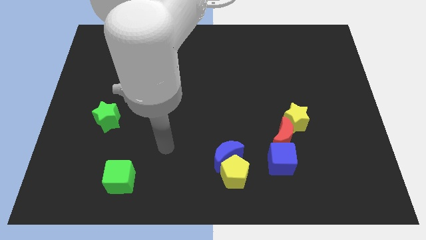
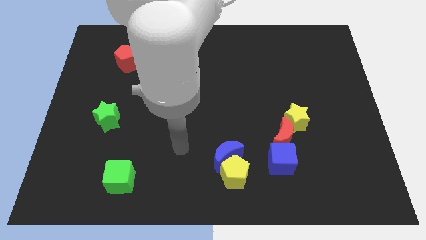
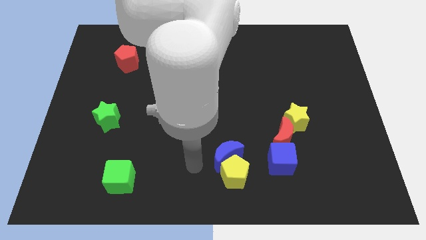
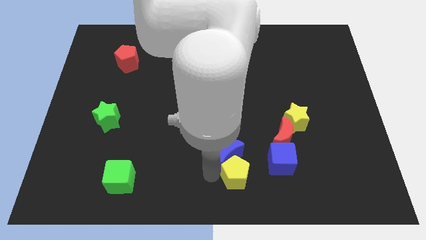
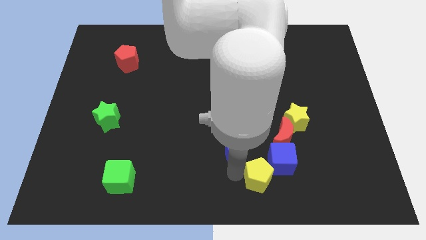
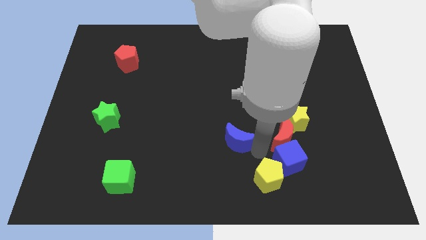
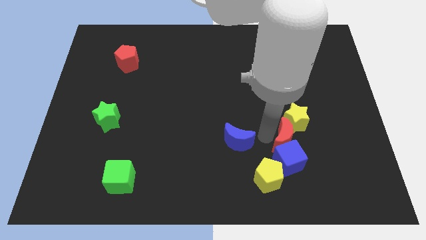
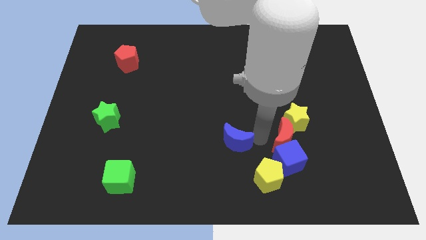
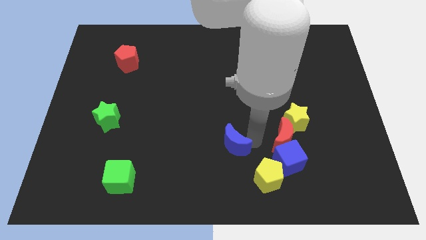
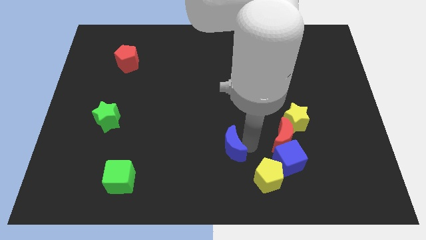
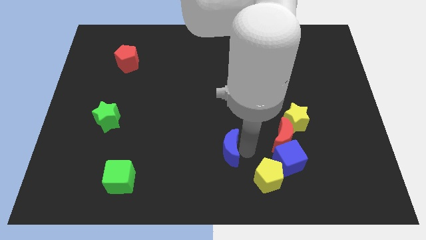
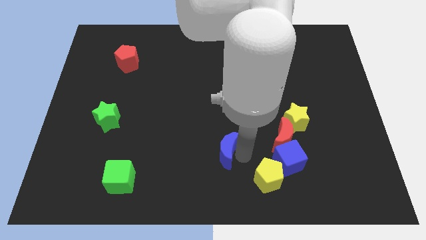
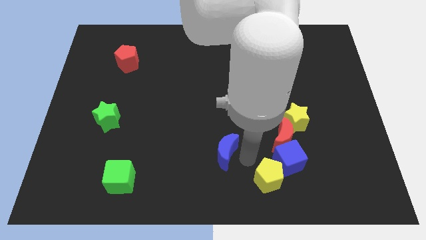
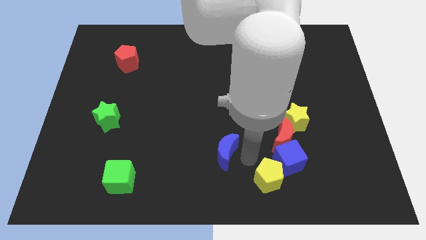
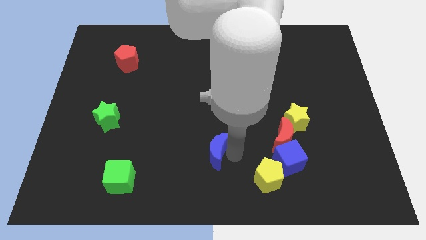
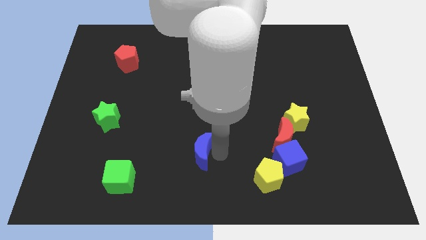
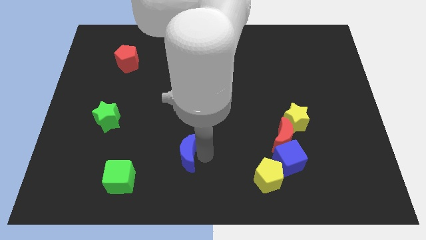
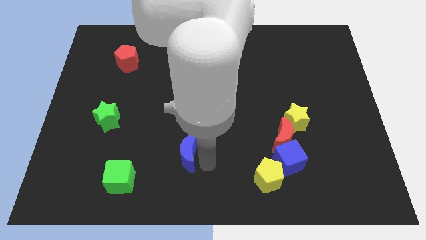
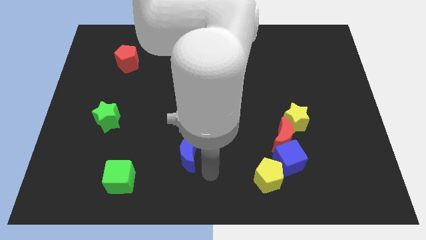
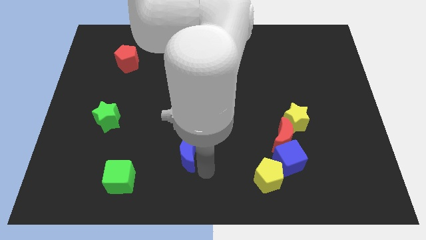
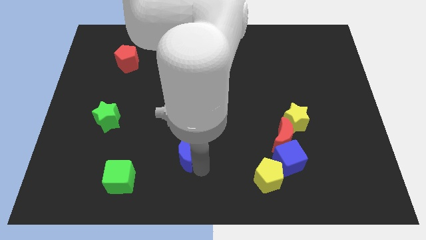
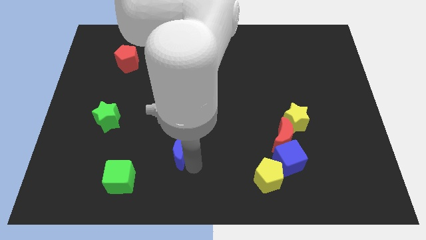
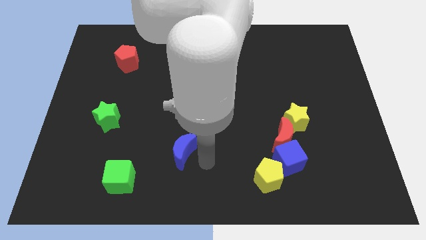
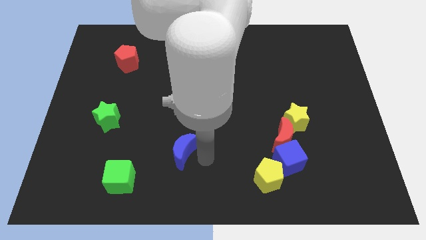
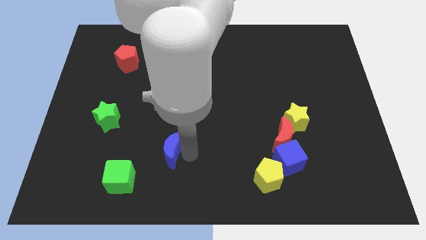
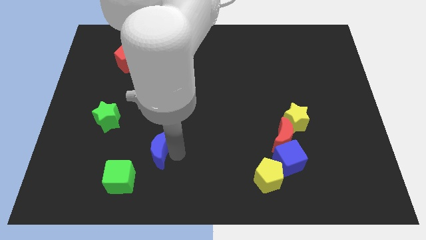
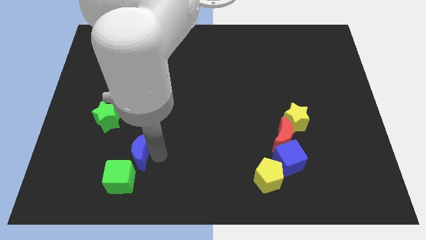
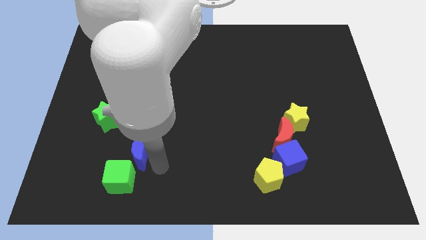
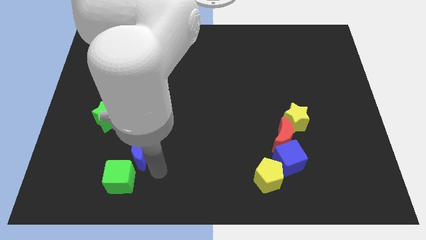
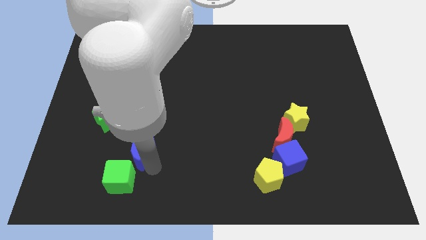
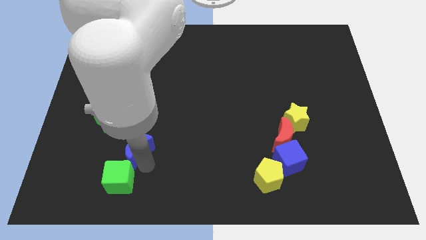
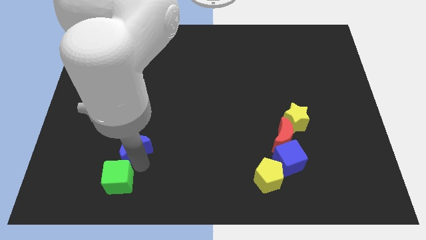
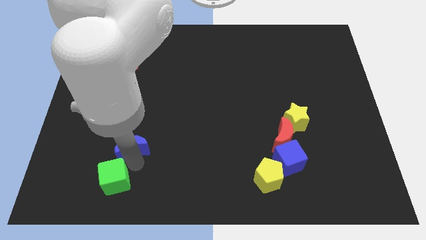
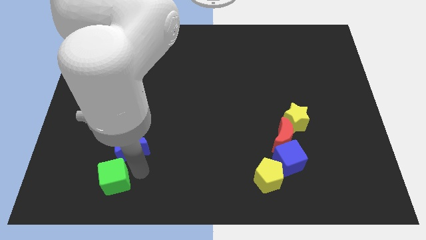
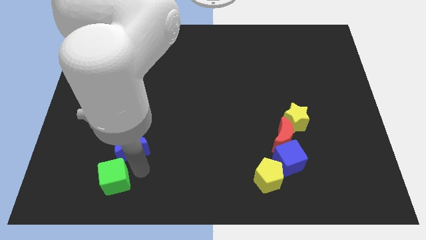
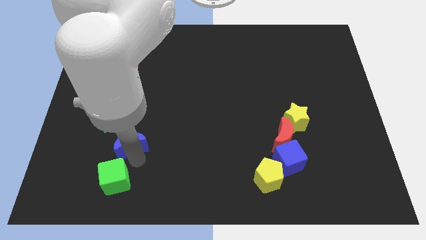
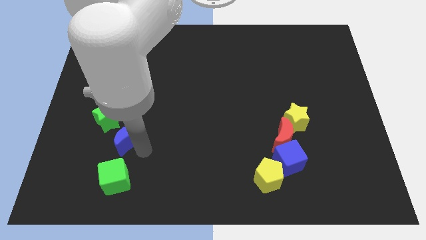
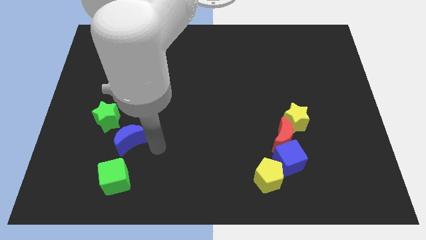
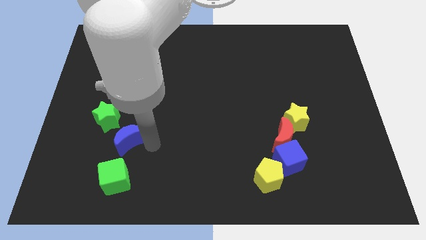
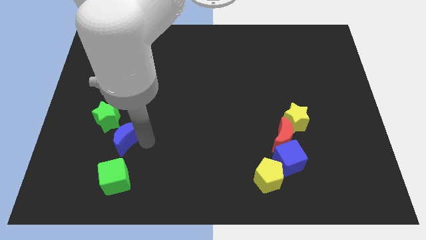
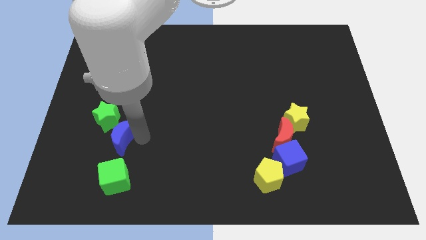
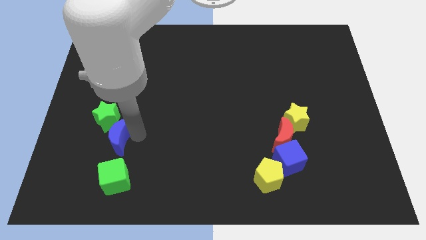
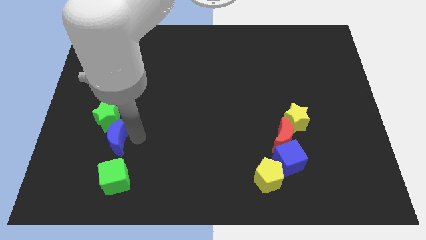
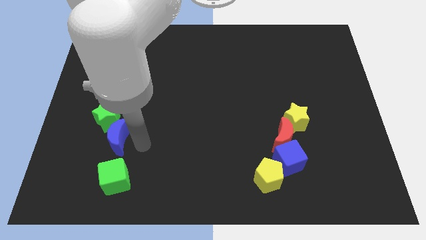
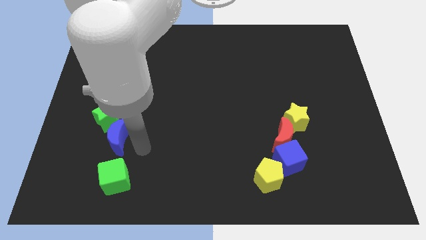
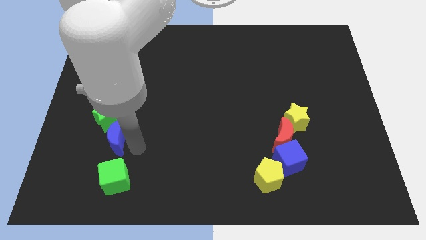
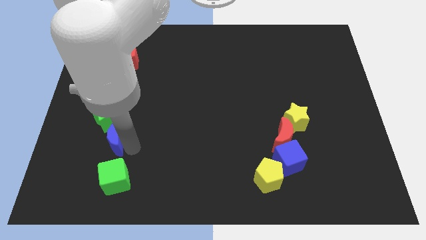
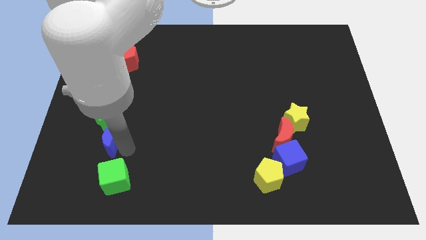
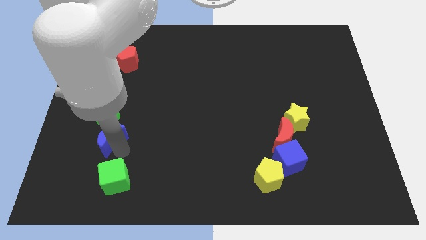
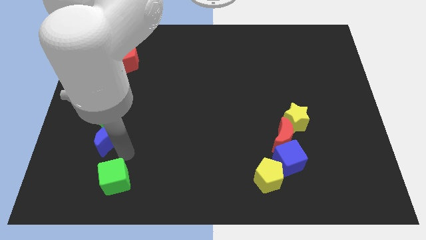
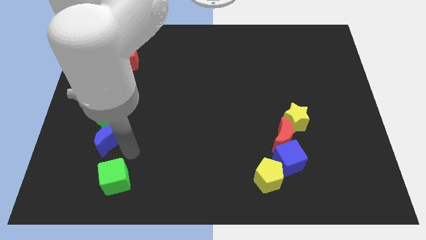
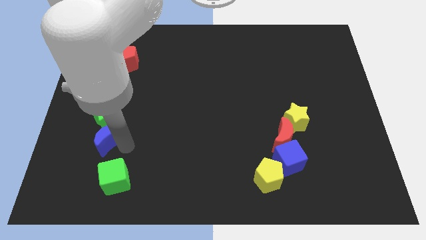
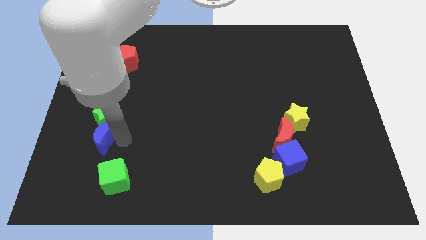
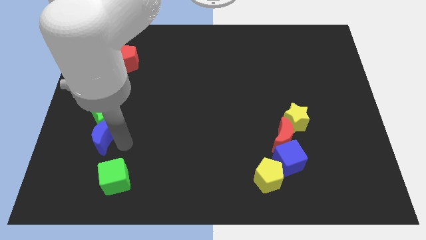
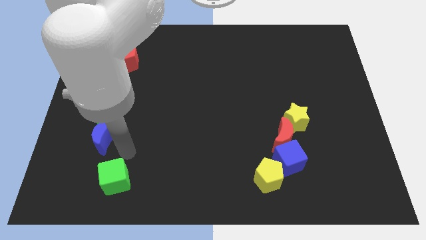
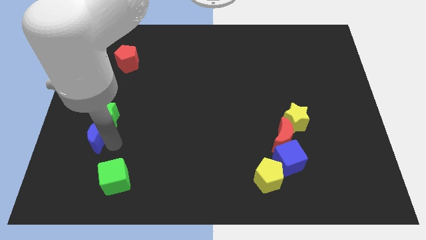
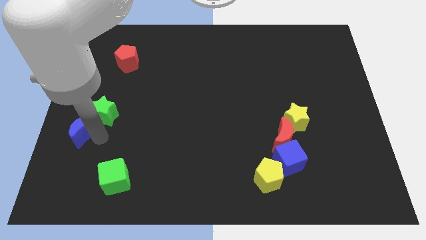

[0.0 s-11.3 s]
put the blue moon to the center left

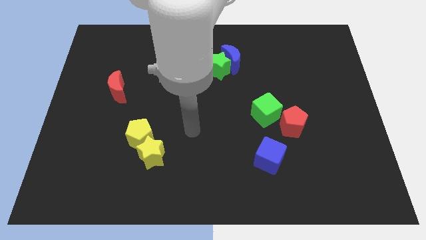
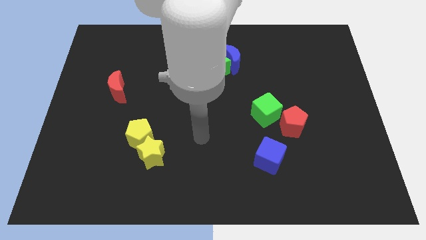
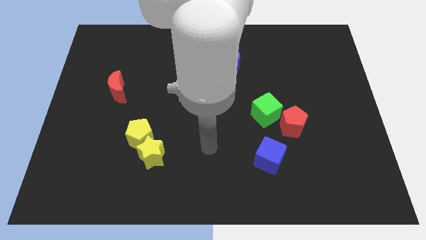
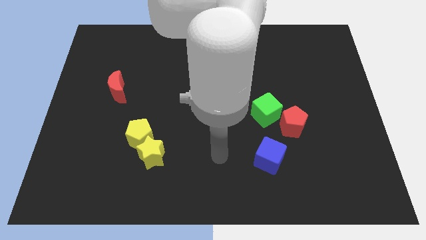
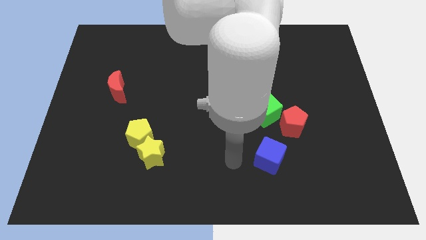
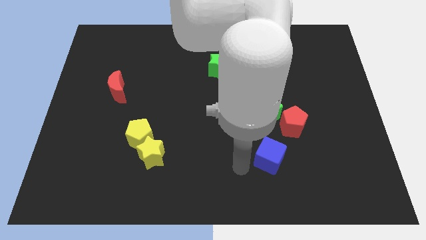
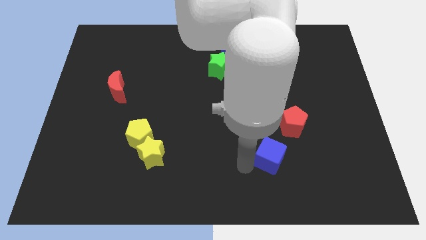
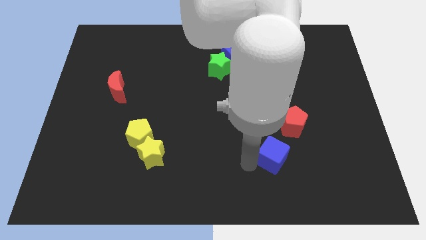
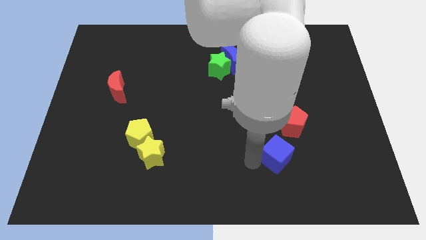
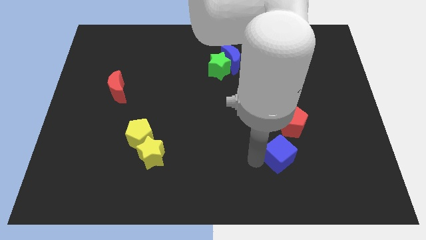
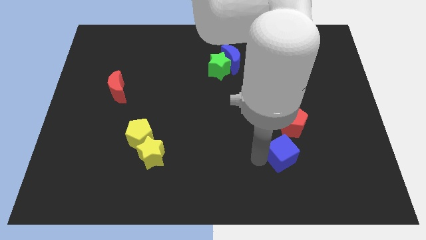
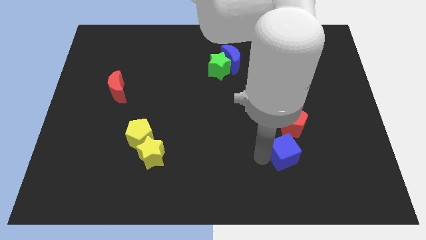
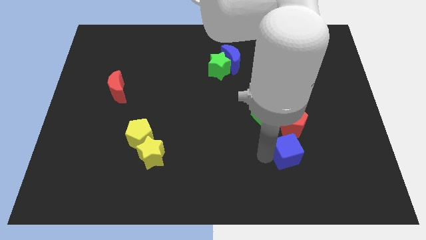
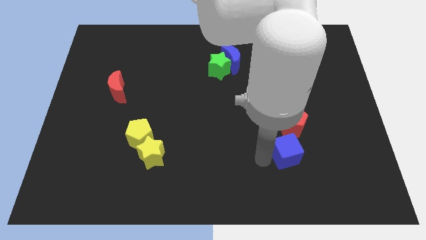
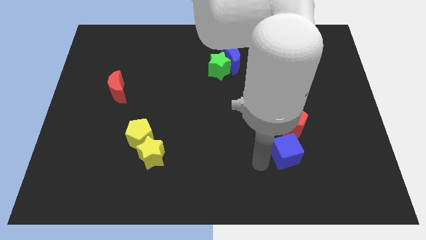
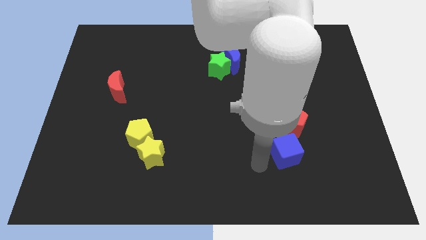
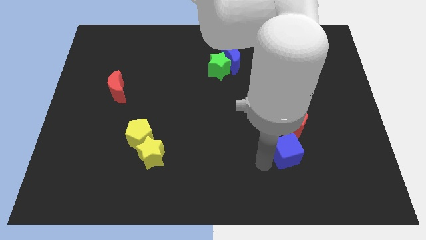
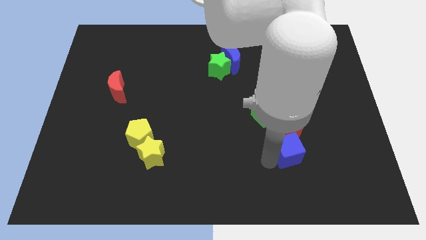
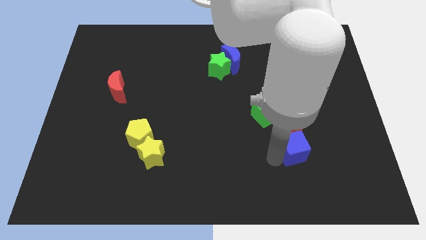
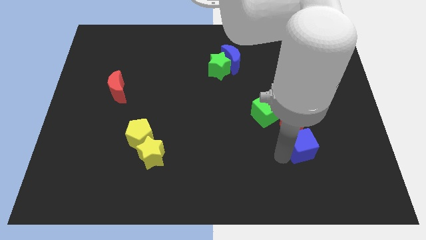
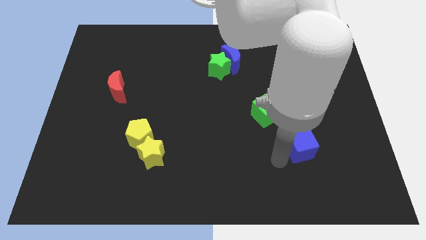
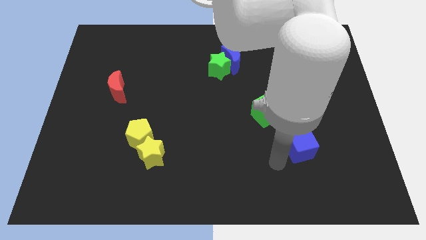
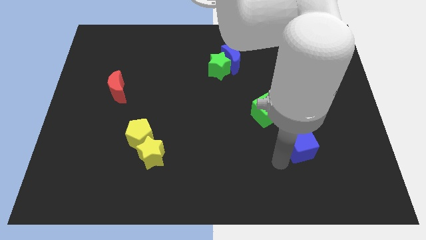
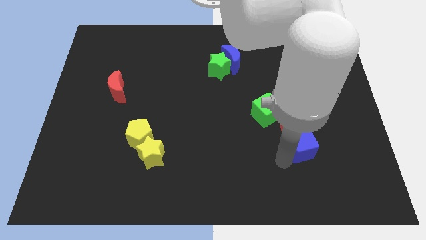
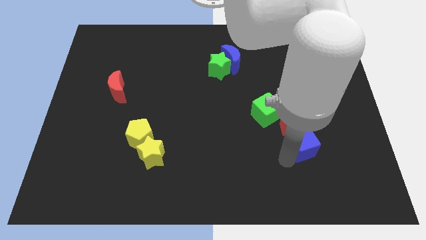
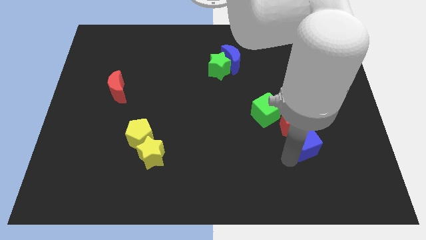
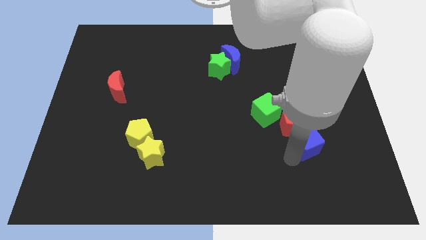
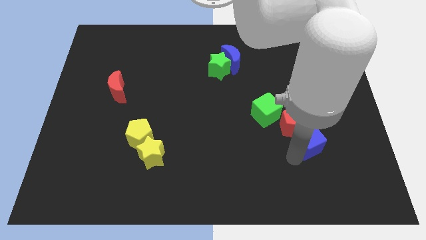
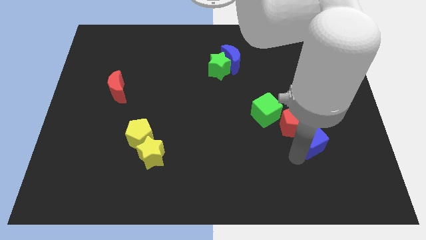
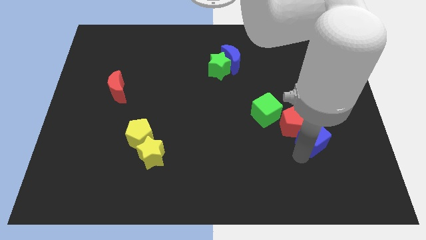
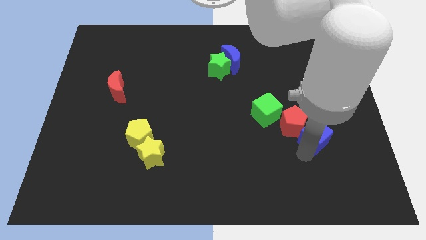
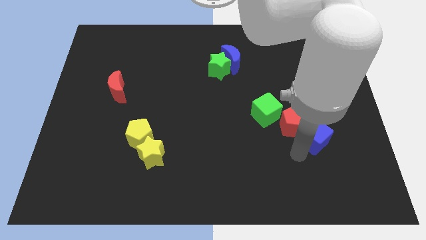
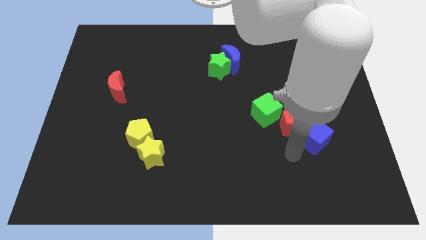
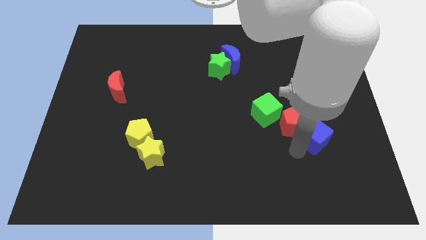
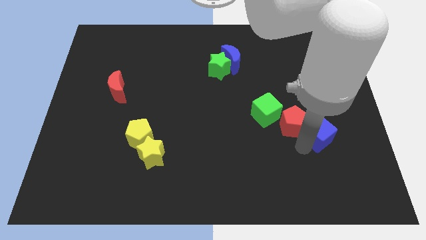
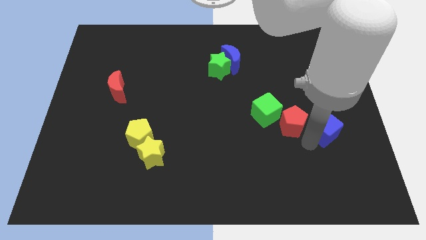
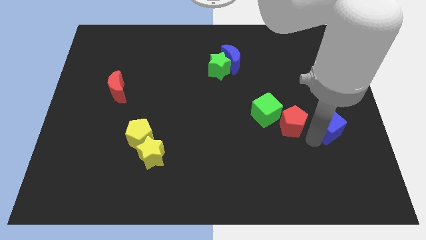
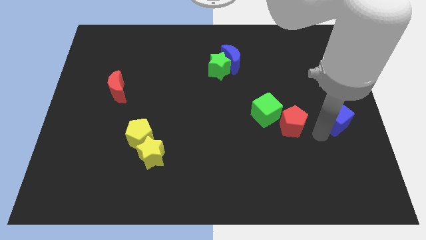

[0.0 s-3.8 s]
move the blue cube to the right side
